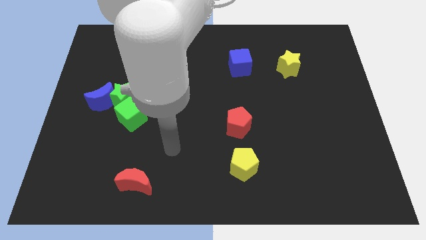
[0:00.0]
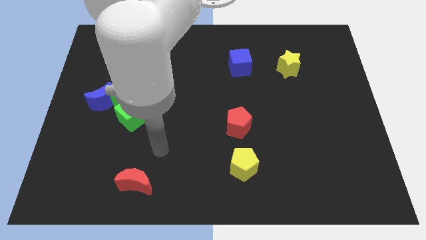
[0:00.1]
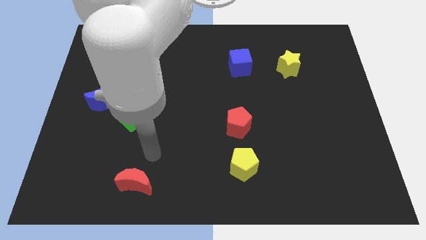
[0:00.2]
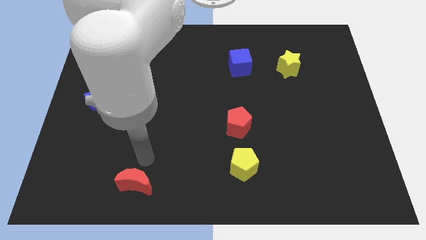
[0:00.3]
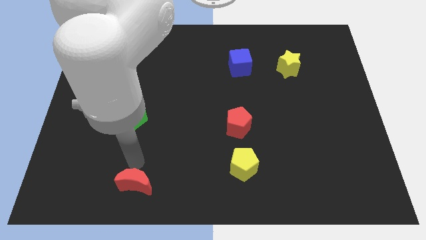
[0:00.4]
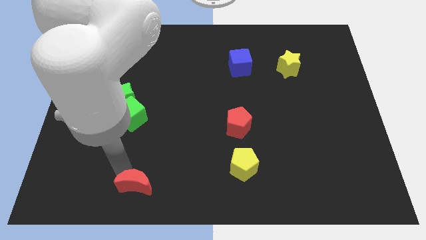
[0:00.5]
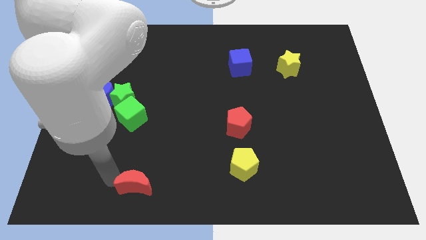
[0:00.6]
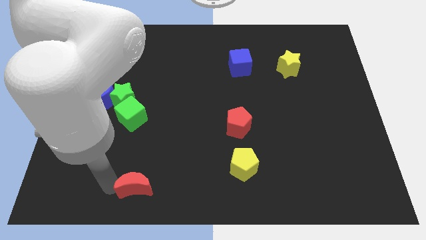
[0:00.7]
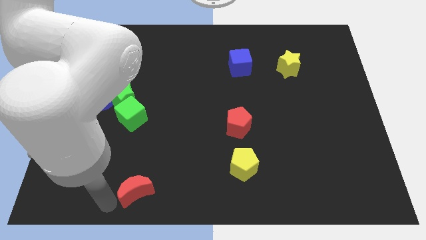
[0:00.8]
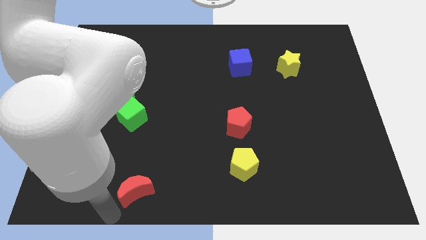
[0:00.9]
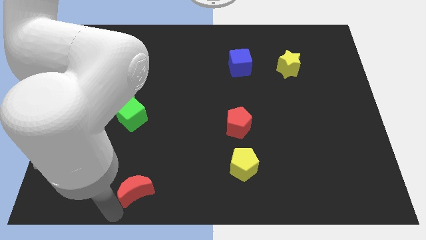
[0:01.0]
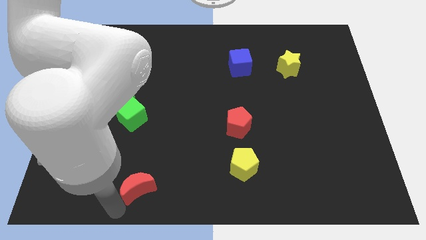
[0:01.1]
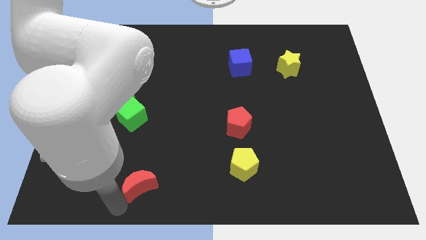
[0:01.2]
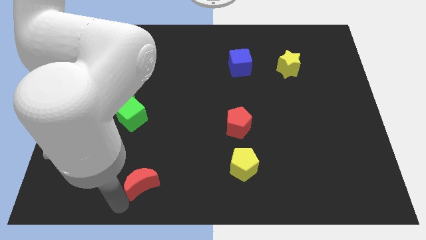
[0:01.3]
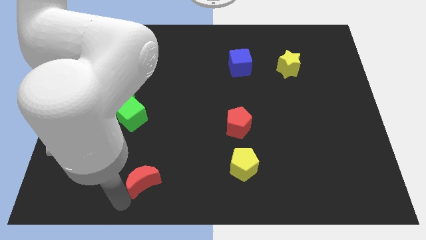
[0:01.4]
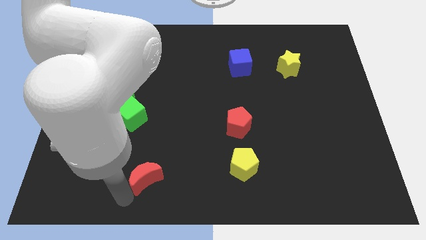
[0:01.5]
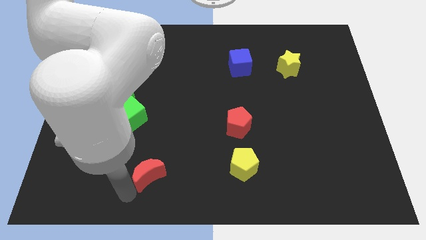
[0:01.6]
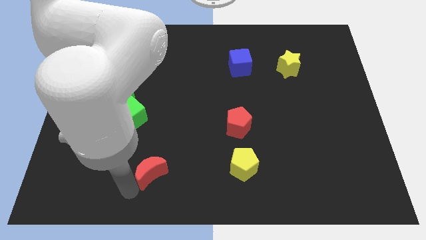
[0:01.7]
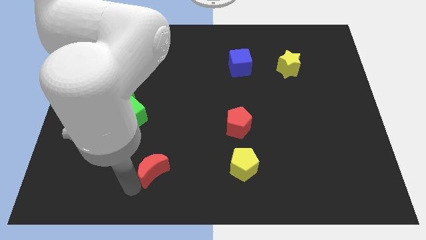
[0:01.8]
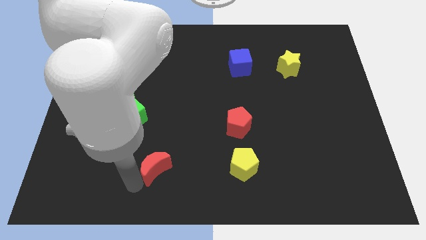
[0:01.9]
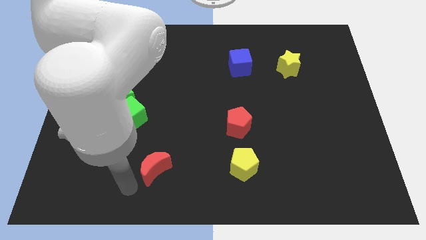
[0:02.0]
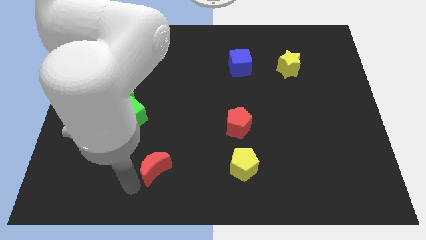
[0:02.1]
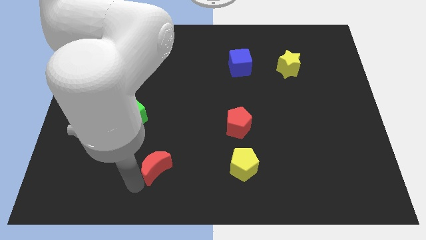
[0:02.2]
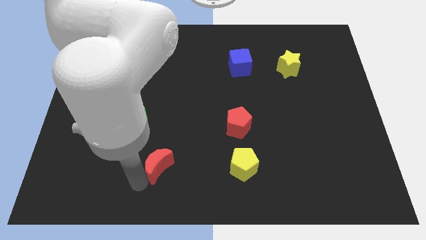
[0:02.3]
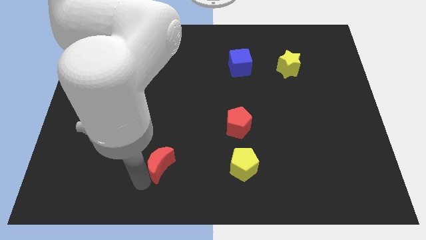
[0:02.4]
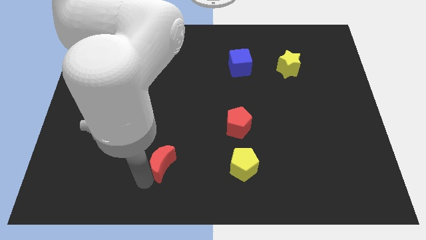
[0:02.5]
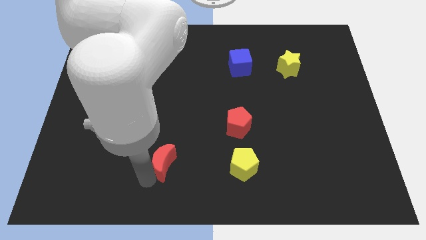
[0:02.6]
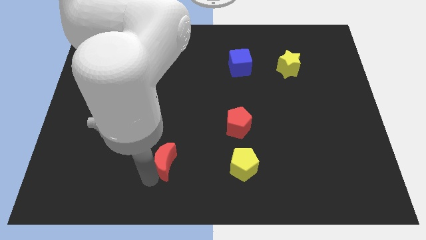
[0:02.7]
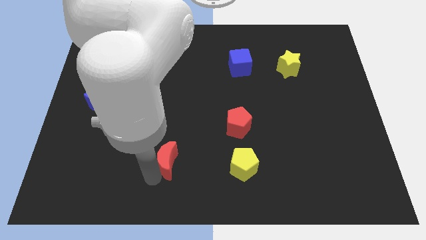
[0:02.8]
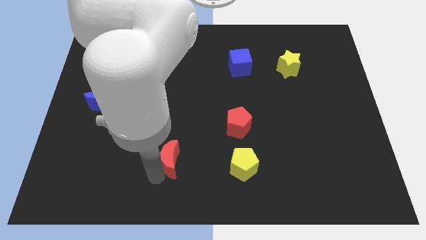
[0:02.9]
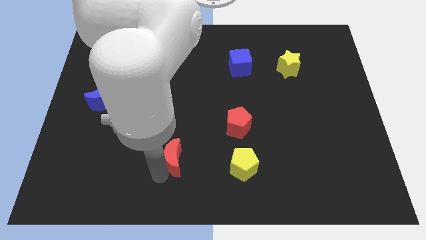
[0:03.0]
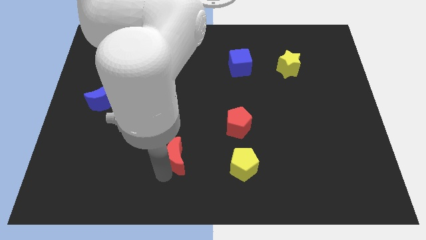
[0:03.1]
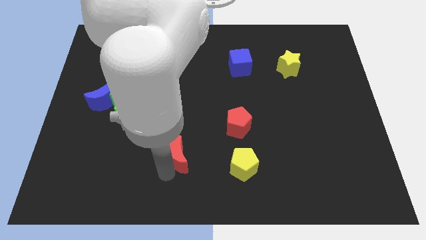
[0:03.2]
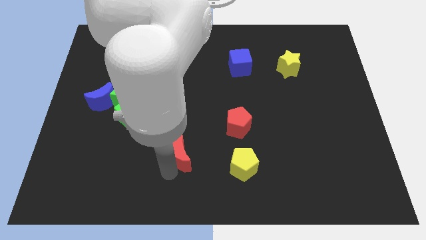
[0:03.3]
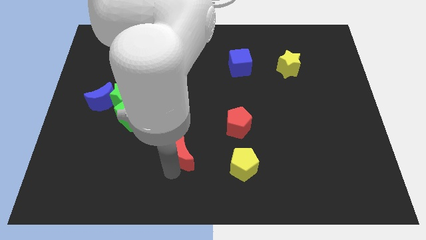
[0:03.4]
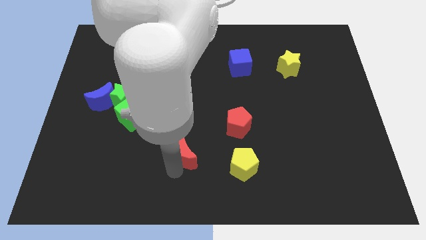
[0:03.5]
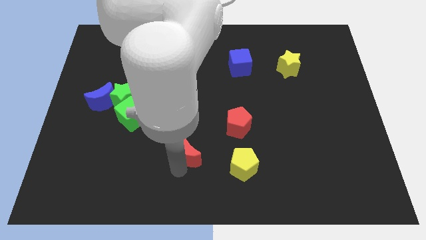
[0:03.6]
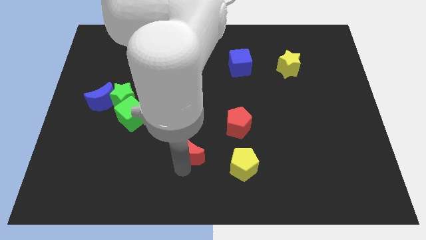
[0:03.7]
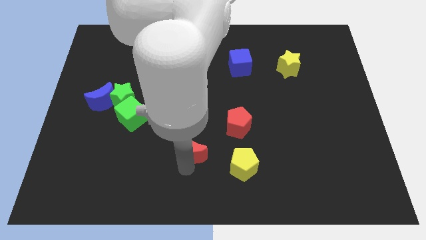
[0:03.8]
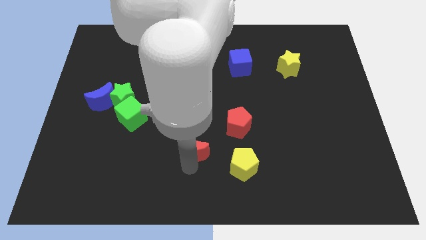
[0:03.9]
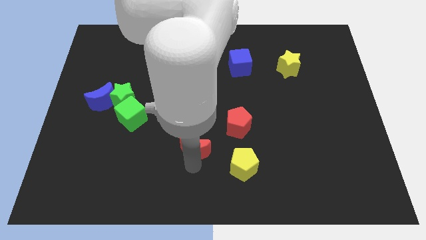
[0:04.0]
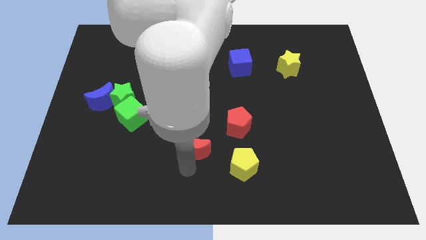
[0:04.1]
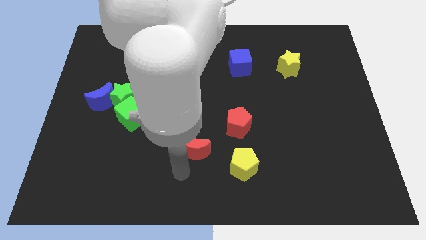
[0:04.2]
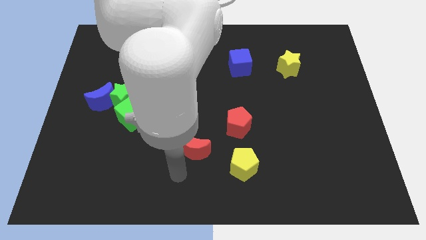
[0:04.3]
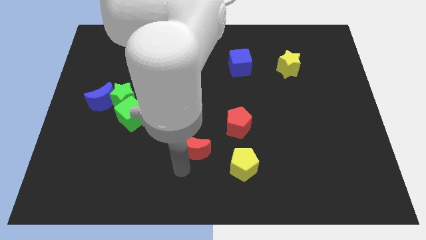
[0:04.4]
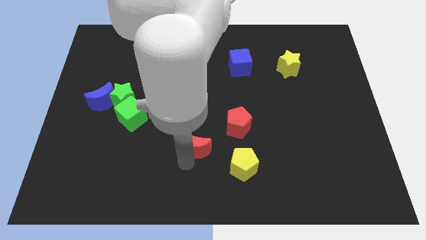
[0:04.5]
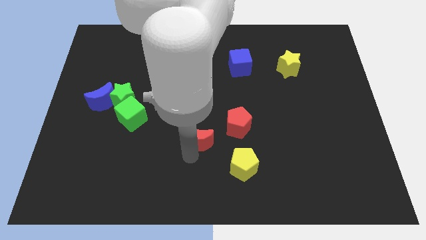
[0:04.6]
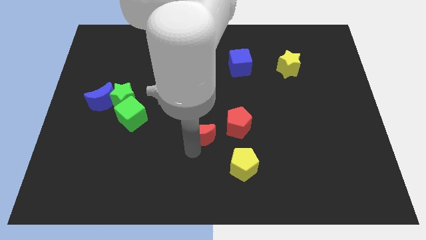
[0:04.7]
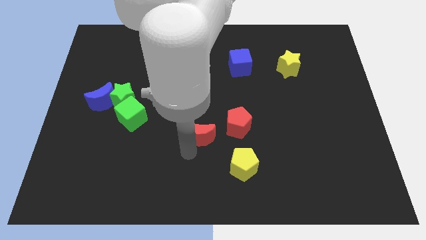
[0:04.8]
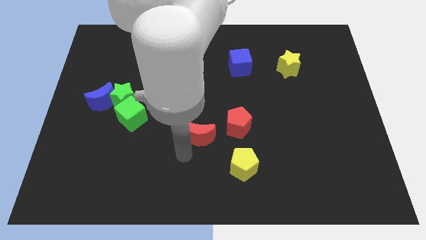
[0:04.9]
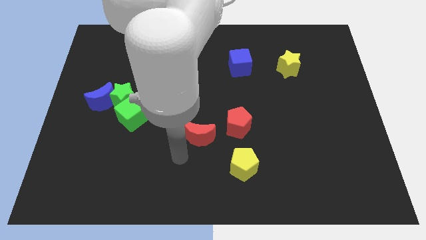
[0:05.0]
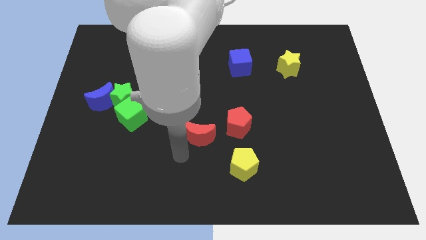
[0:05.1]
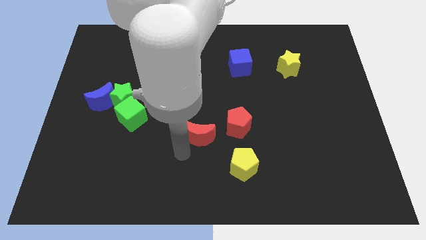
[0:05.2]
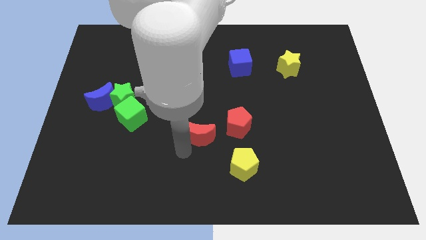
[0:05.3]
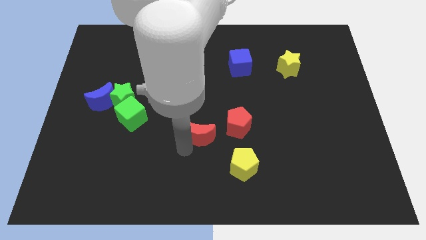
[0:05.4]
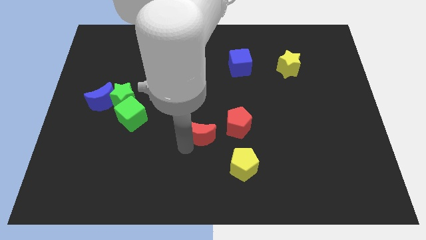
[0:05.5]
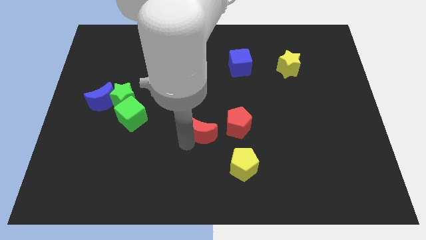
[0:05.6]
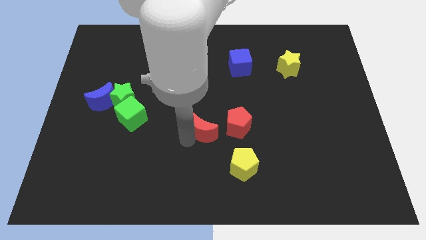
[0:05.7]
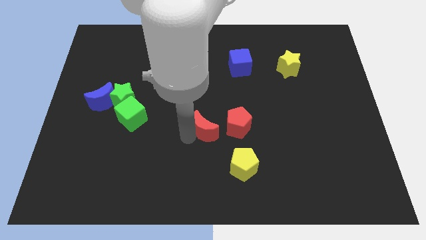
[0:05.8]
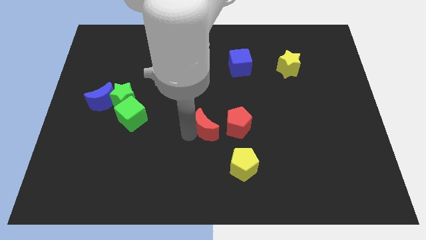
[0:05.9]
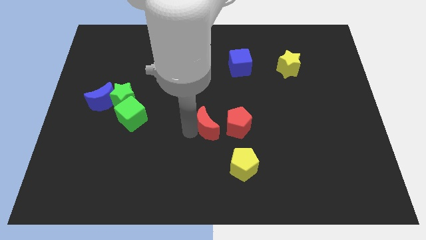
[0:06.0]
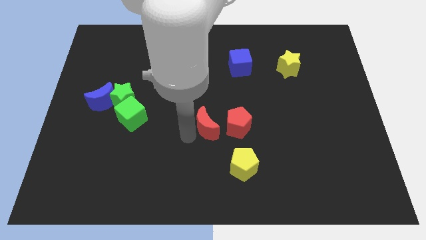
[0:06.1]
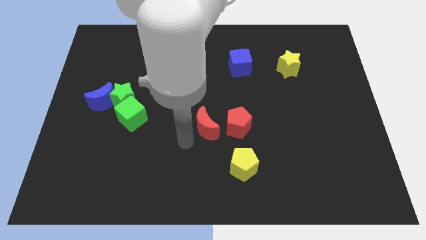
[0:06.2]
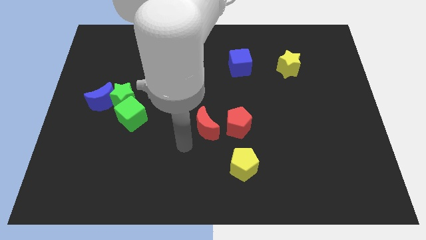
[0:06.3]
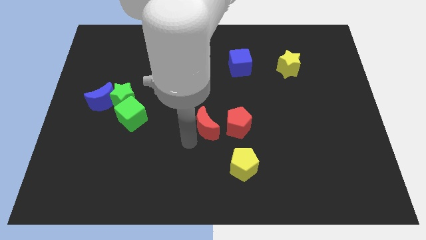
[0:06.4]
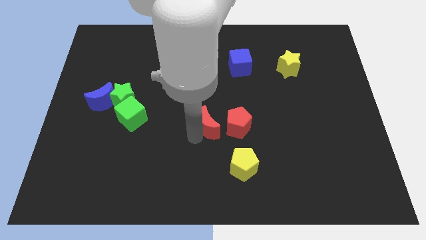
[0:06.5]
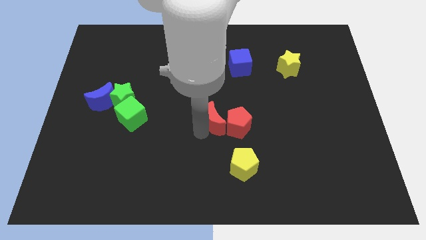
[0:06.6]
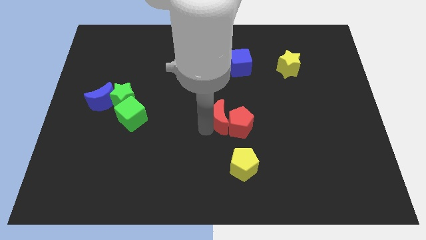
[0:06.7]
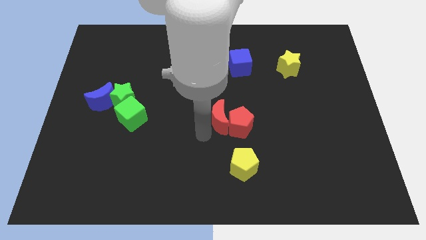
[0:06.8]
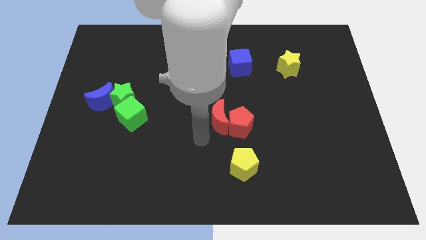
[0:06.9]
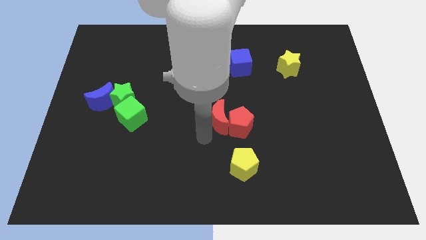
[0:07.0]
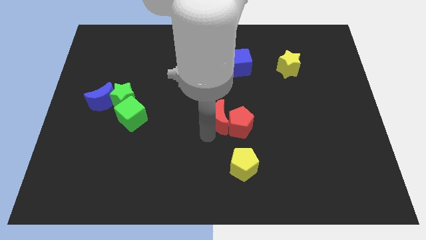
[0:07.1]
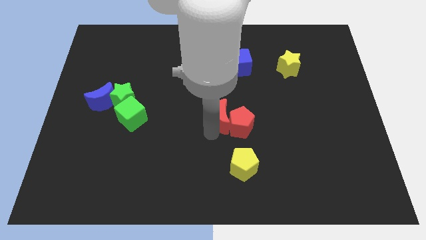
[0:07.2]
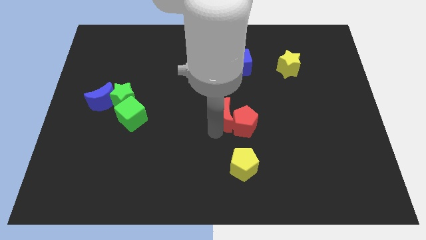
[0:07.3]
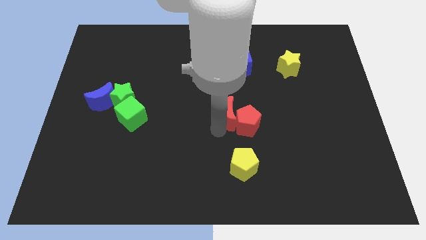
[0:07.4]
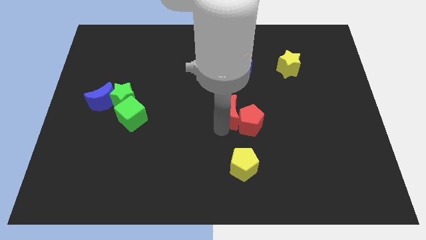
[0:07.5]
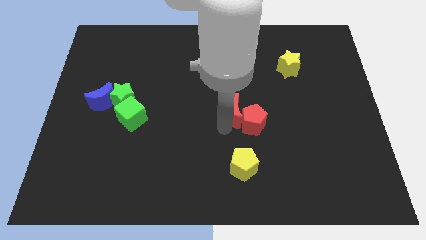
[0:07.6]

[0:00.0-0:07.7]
push the red moon to the bottom of the blue cube

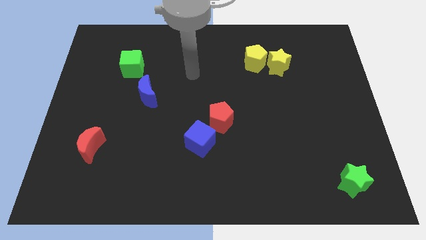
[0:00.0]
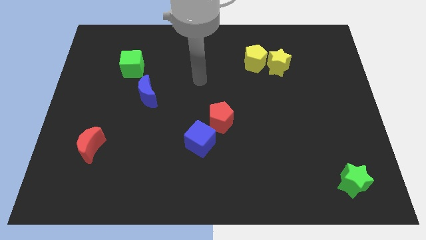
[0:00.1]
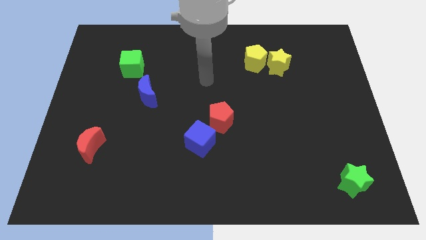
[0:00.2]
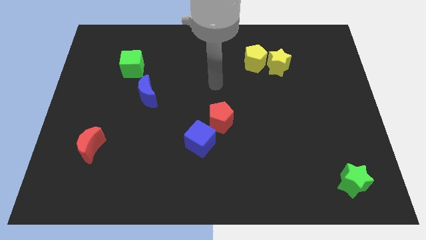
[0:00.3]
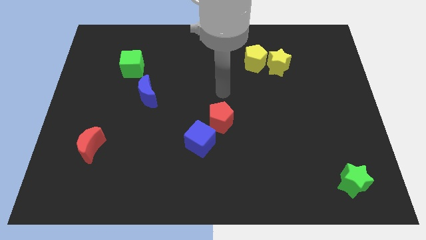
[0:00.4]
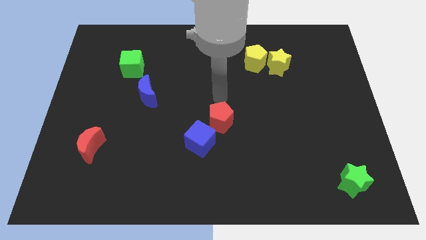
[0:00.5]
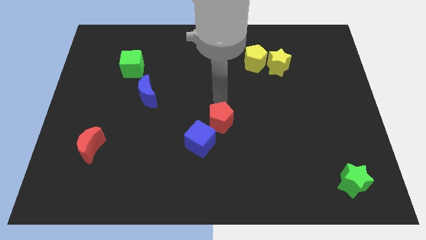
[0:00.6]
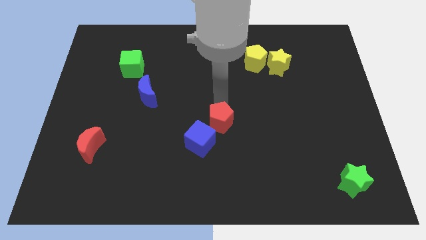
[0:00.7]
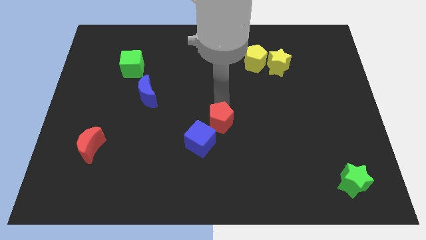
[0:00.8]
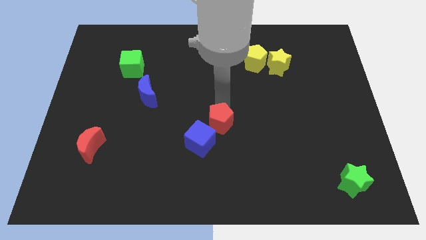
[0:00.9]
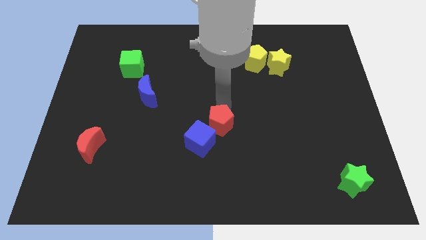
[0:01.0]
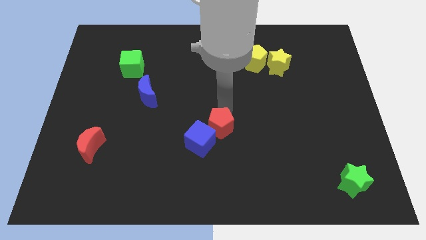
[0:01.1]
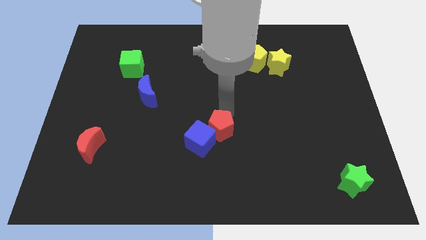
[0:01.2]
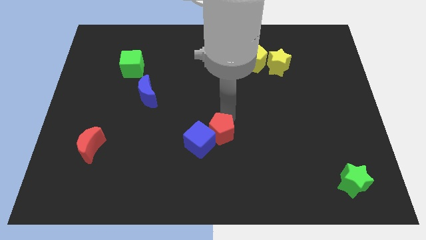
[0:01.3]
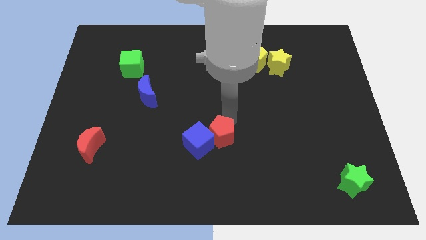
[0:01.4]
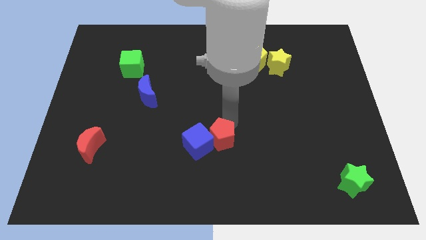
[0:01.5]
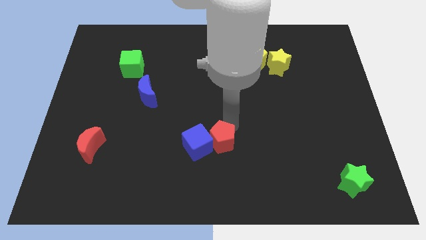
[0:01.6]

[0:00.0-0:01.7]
move the red pentagon to the bottom right side of the blue cube
